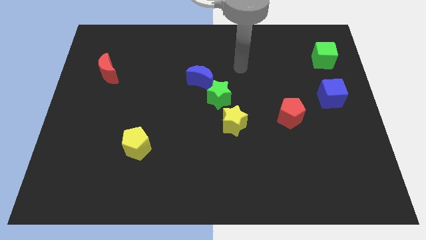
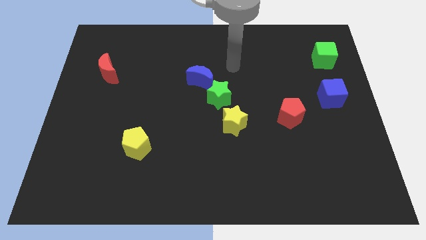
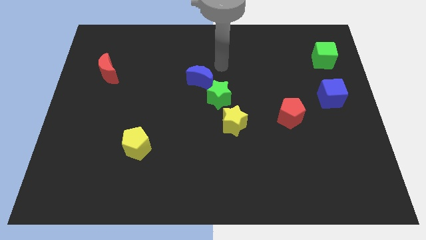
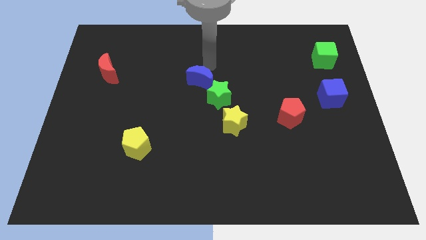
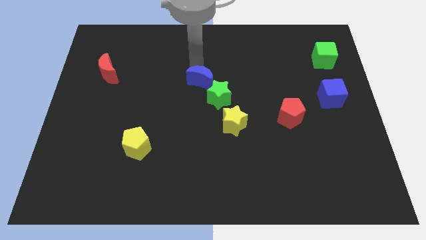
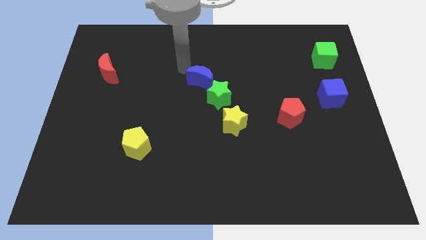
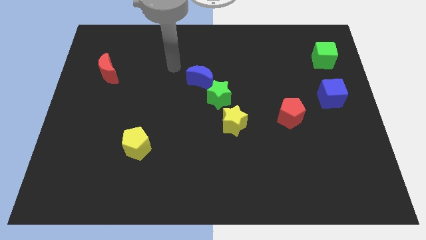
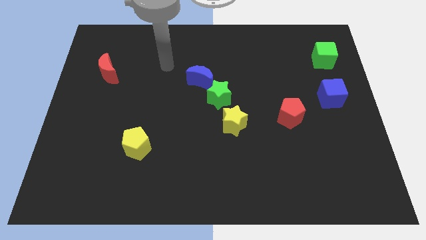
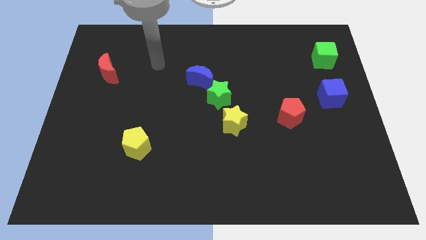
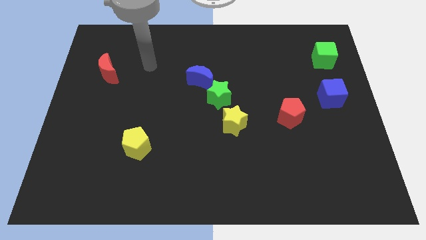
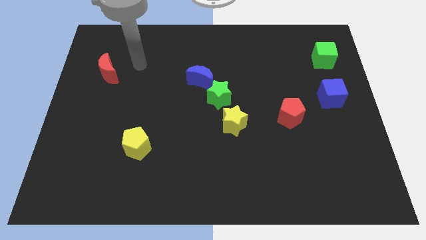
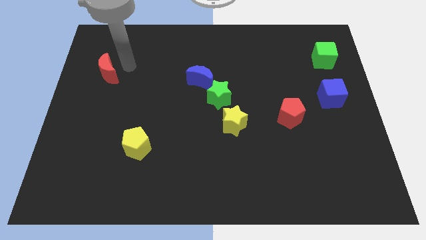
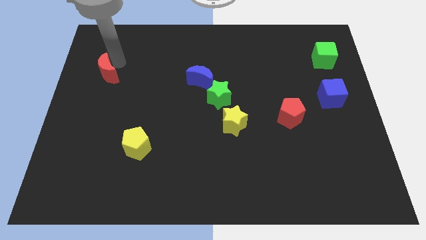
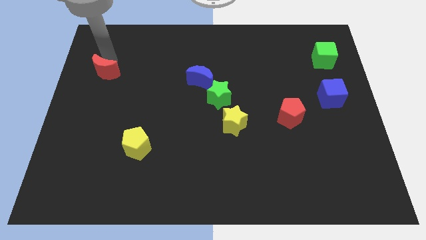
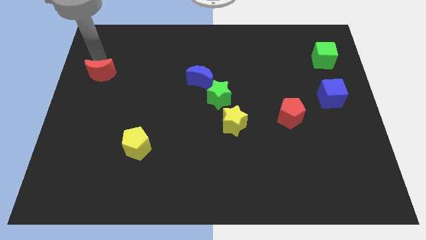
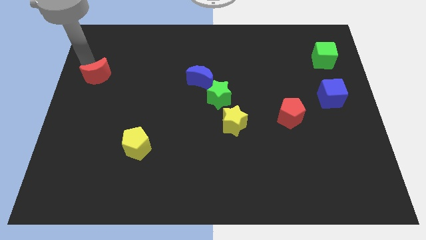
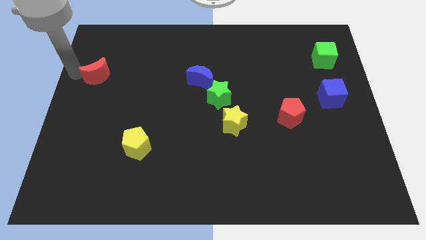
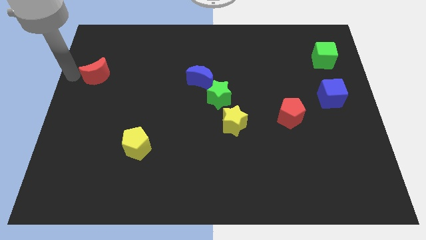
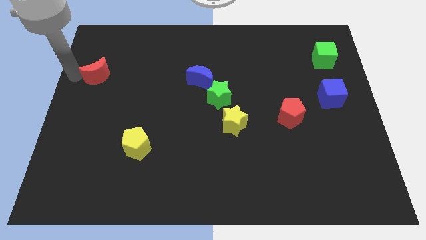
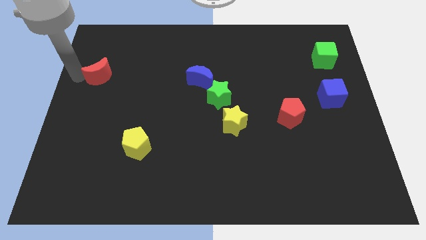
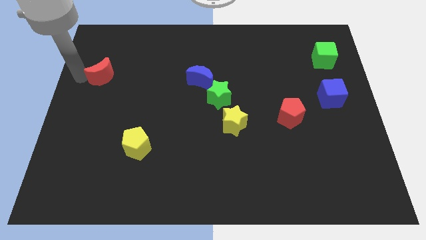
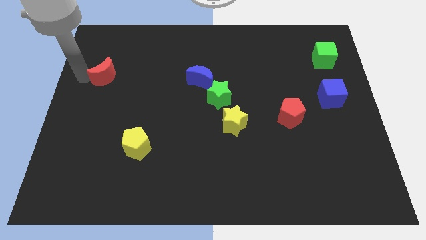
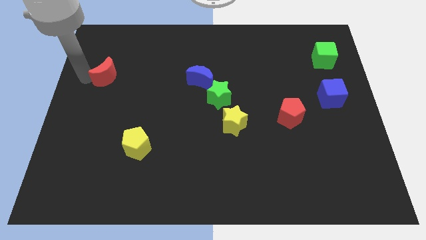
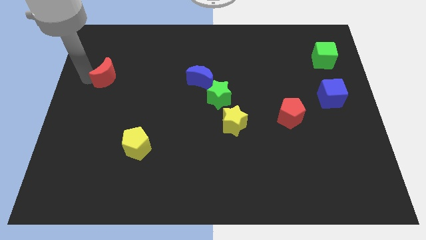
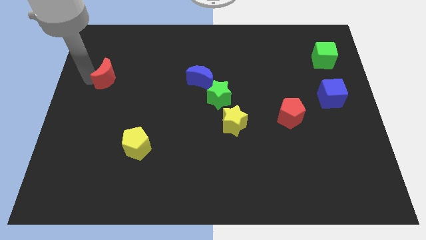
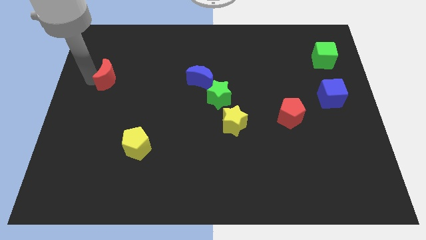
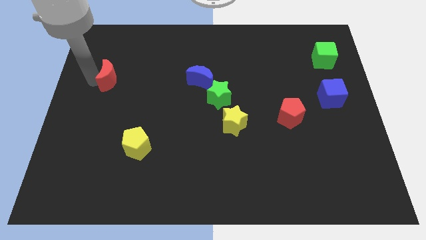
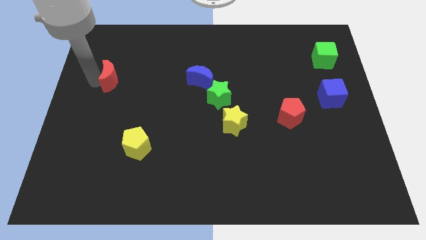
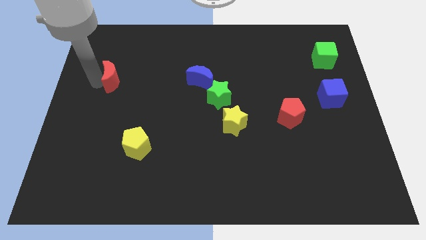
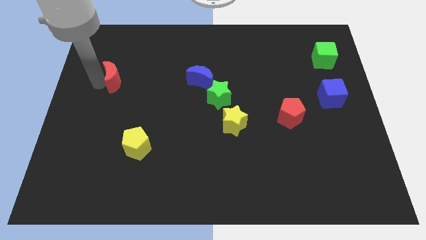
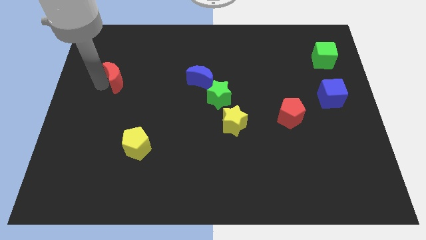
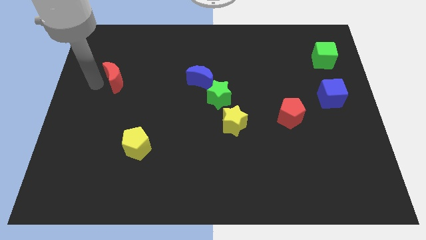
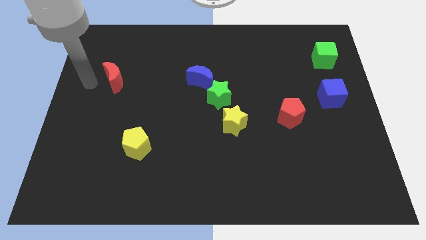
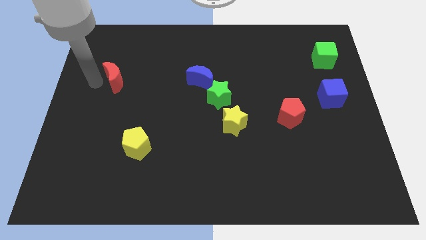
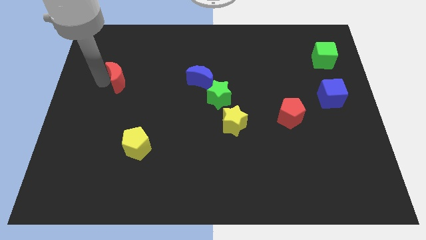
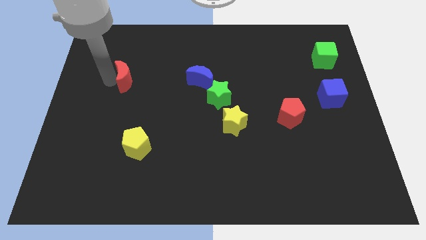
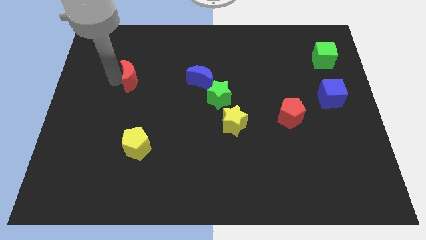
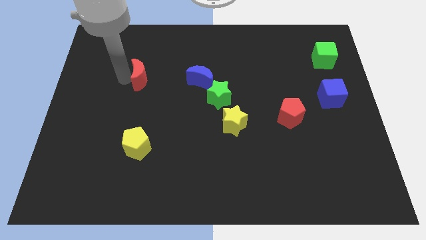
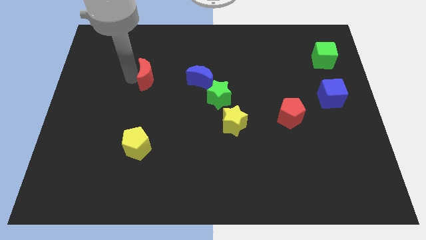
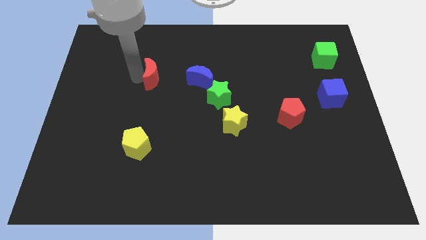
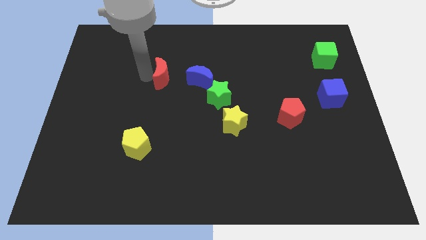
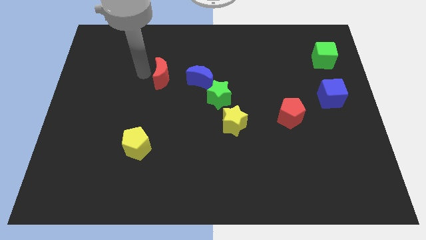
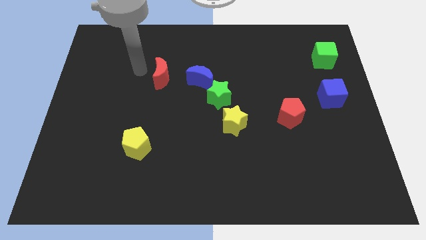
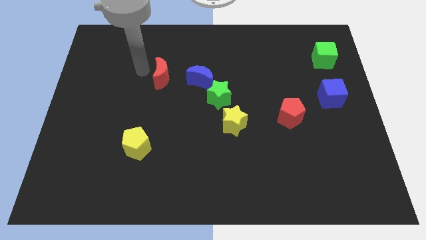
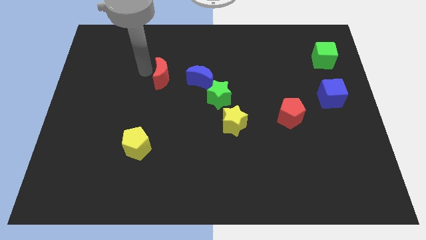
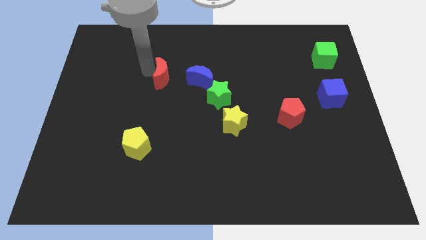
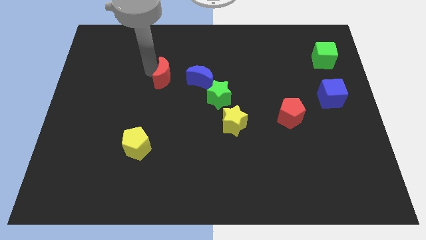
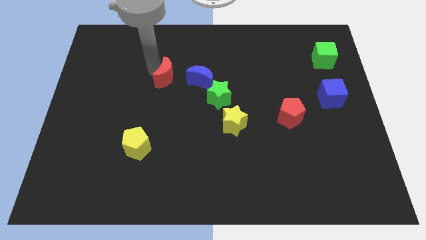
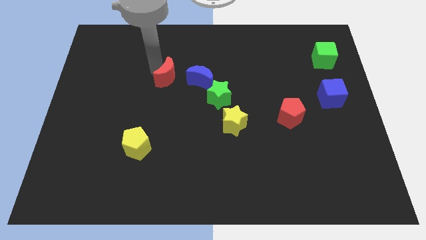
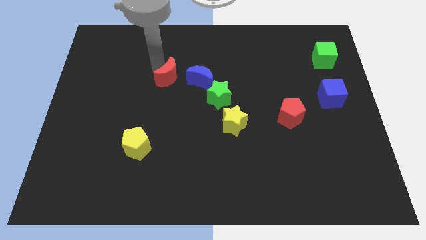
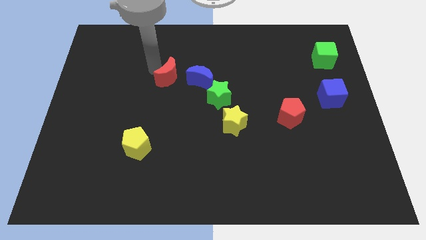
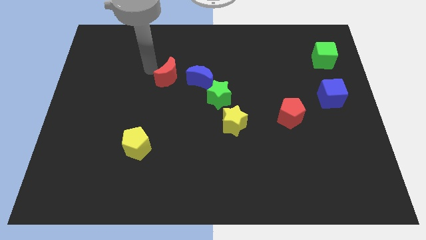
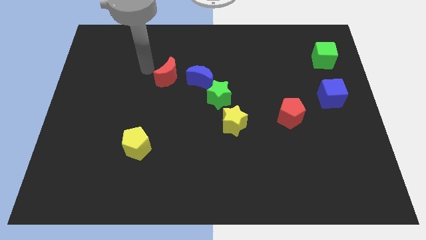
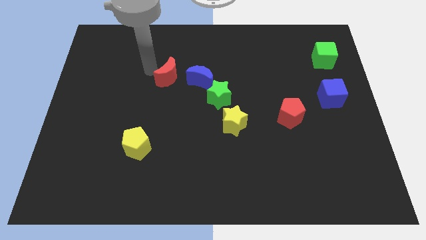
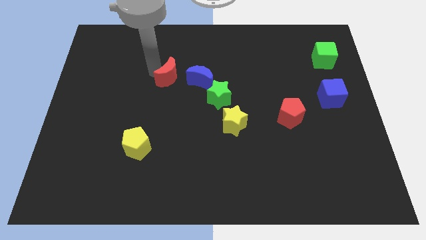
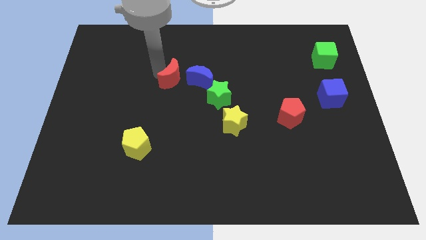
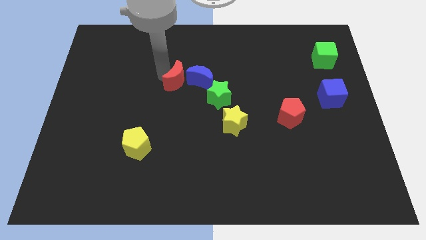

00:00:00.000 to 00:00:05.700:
slide the red moon towards the blue moon

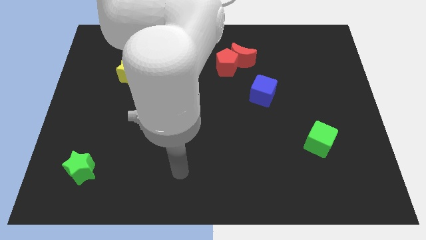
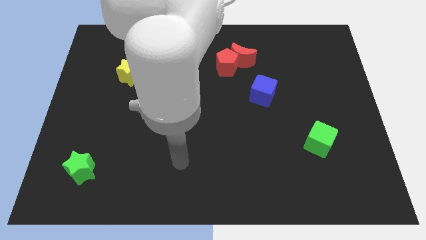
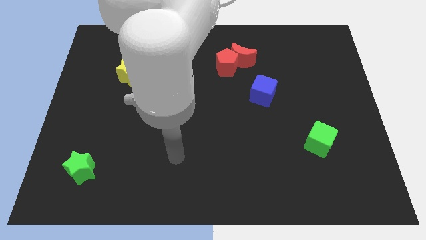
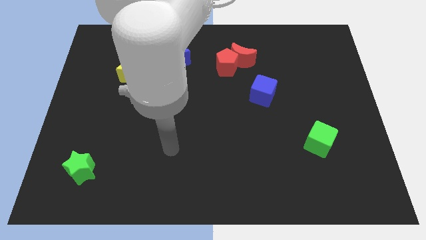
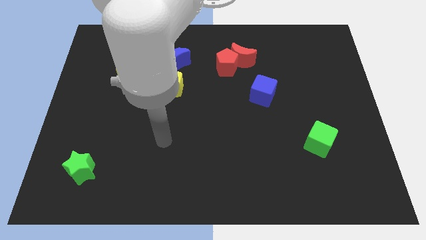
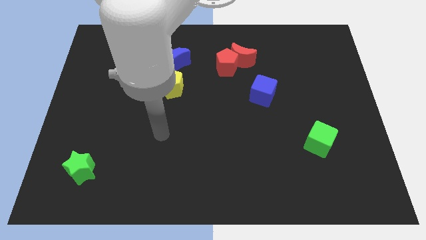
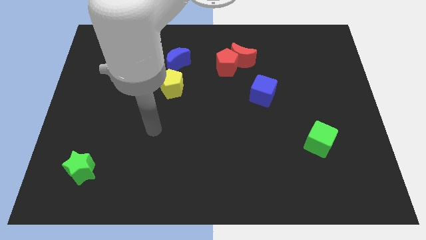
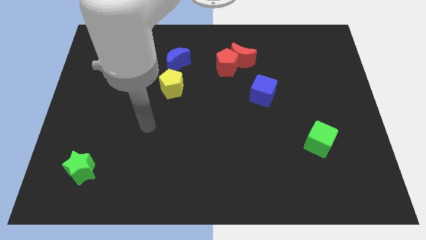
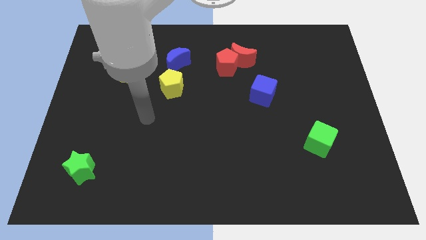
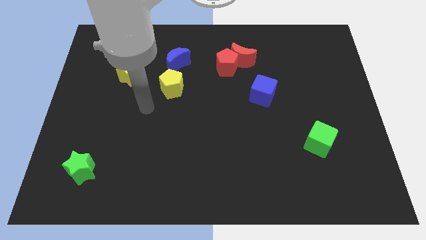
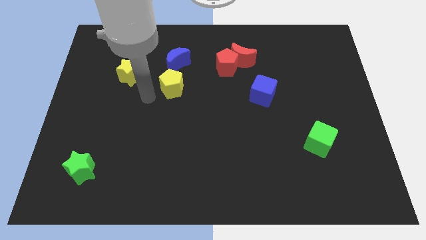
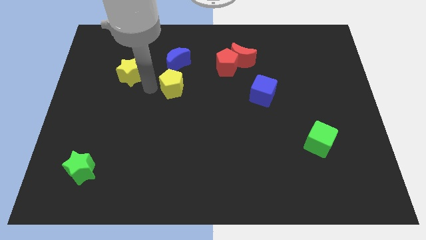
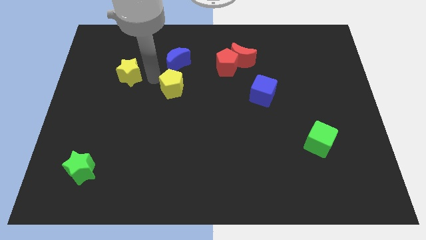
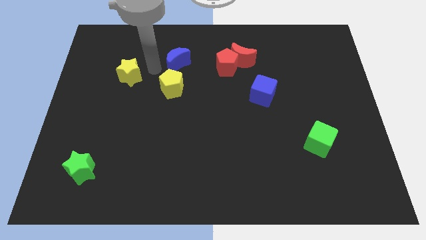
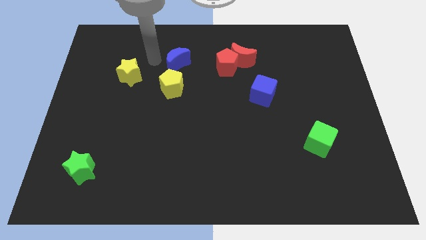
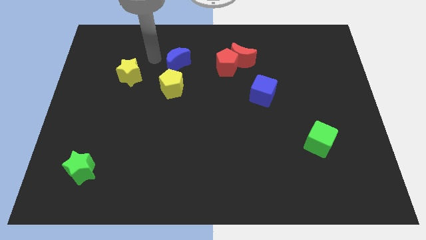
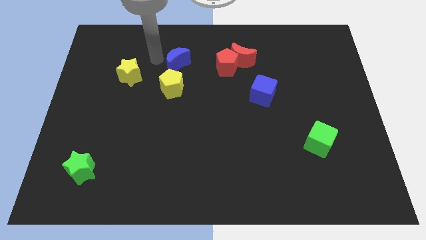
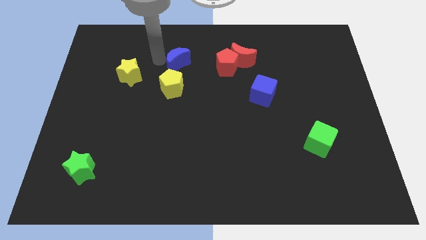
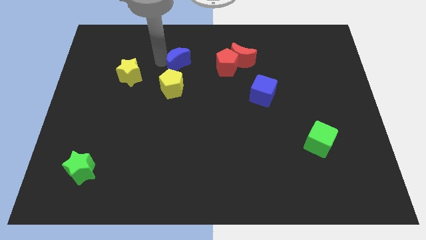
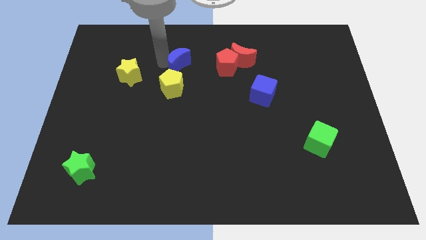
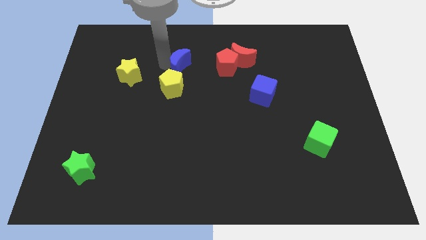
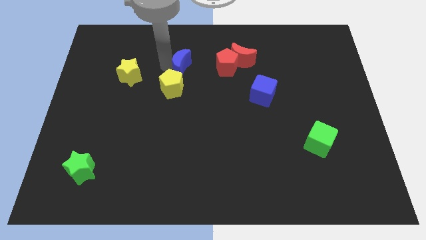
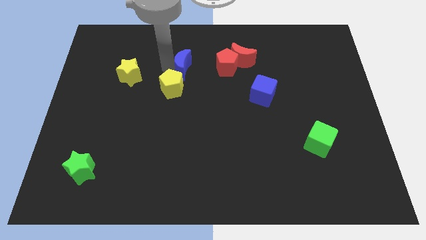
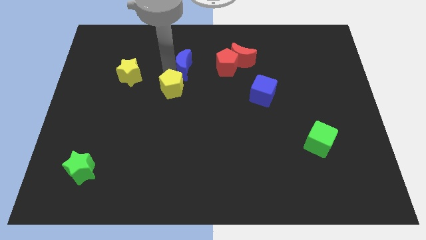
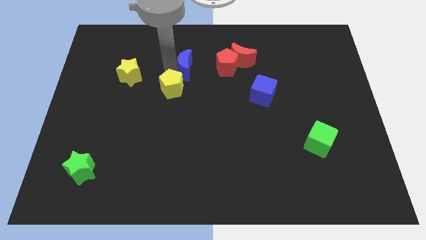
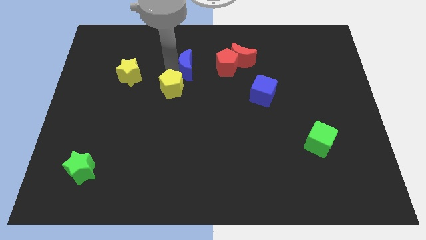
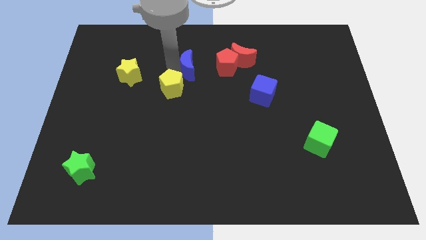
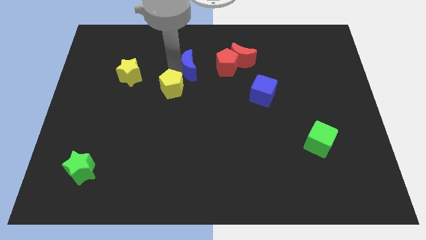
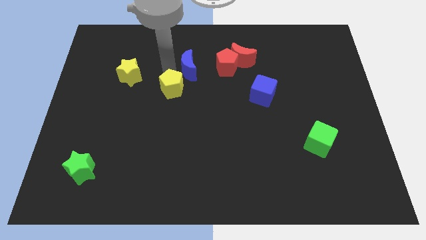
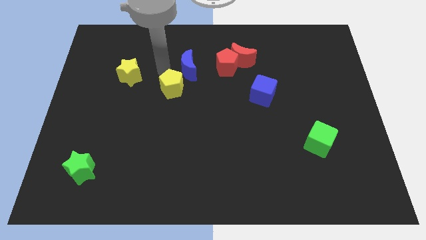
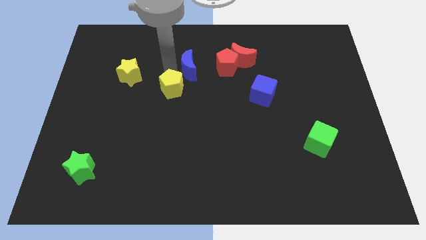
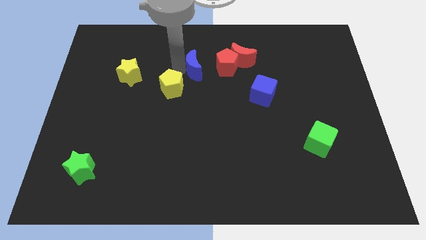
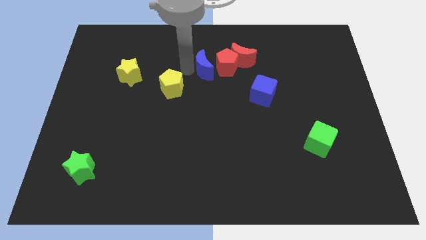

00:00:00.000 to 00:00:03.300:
slide the blue moon towards the red pentagon
